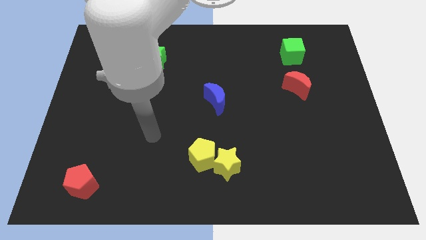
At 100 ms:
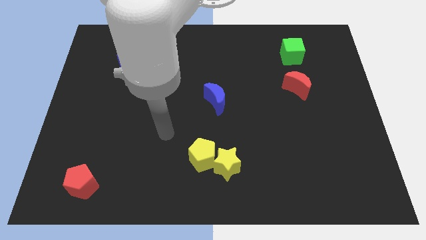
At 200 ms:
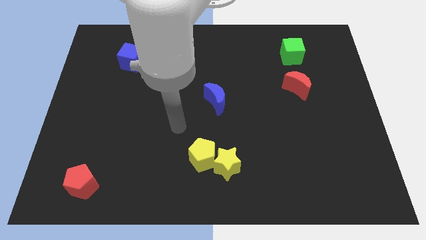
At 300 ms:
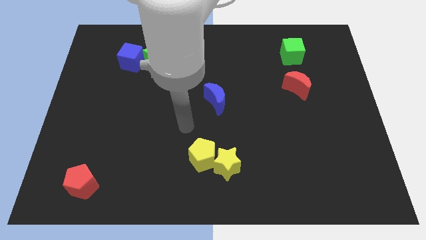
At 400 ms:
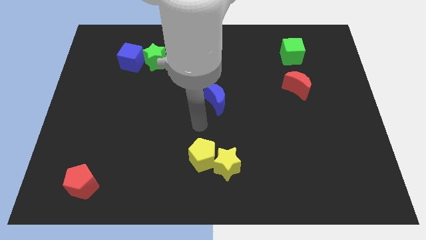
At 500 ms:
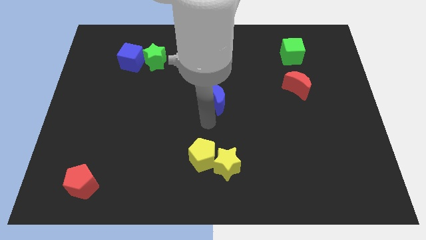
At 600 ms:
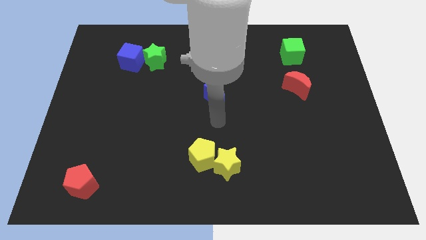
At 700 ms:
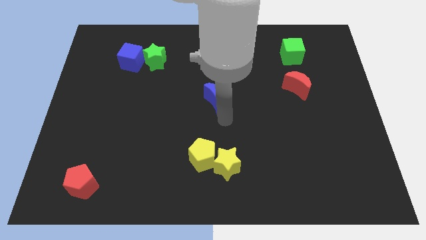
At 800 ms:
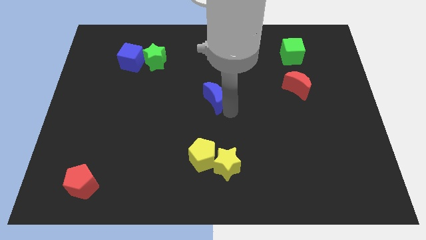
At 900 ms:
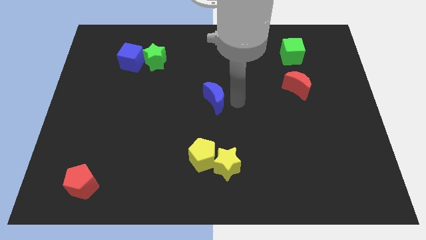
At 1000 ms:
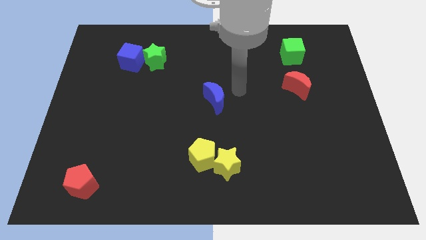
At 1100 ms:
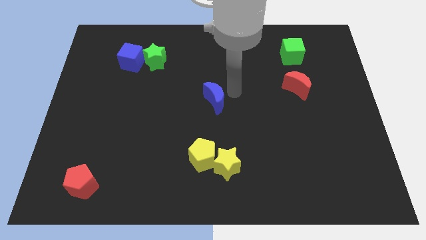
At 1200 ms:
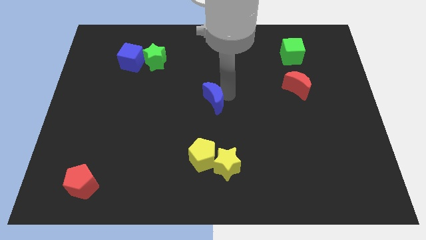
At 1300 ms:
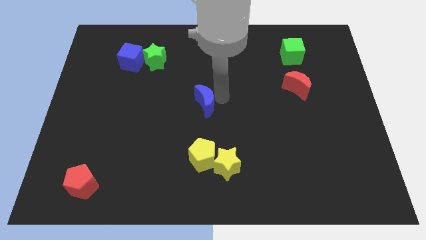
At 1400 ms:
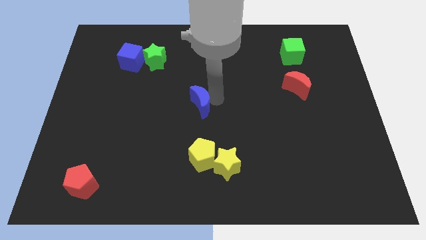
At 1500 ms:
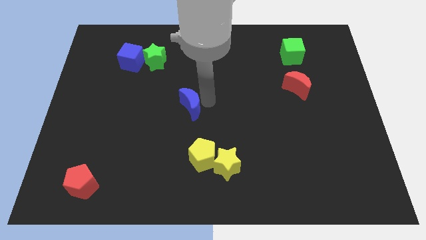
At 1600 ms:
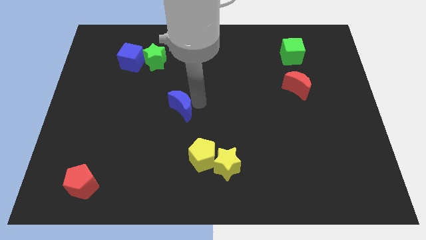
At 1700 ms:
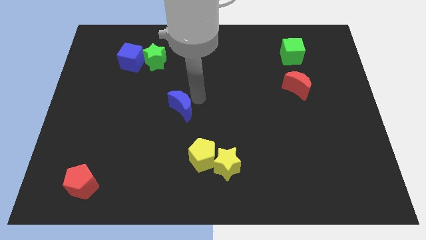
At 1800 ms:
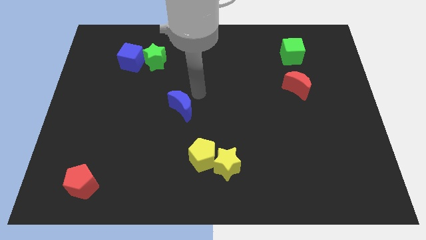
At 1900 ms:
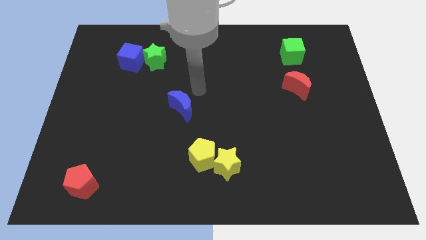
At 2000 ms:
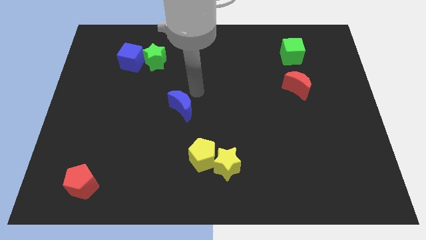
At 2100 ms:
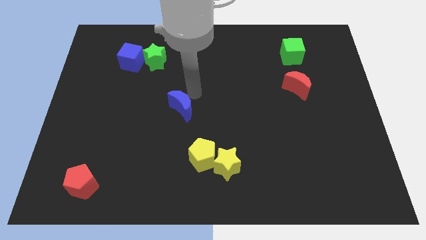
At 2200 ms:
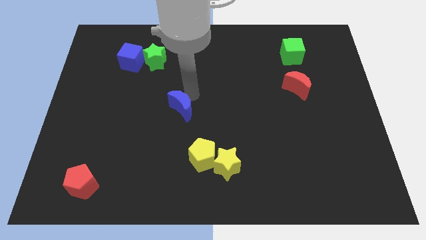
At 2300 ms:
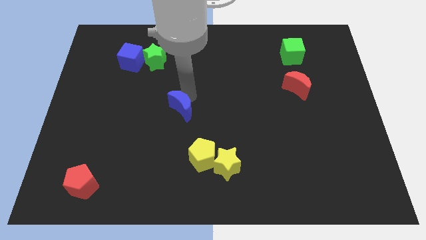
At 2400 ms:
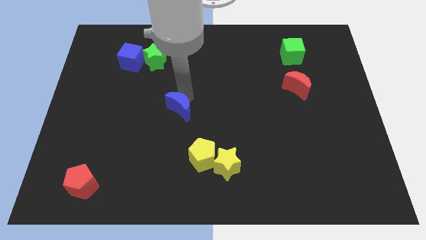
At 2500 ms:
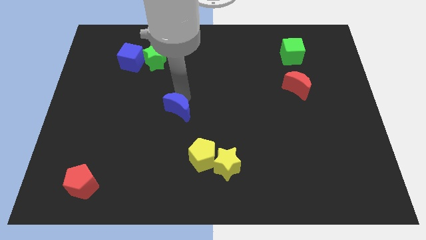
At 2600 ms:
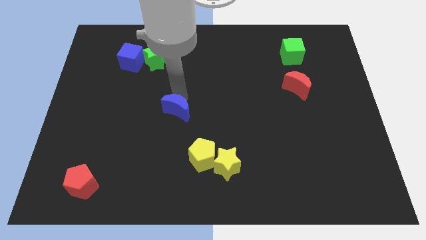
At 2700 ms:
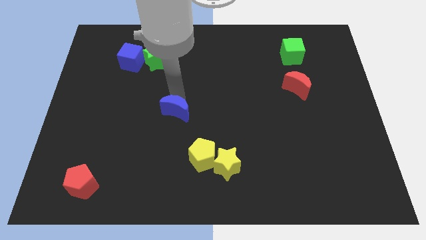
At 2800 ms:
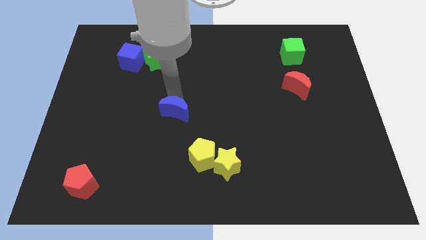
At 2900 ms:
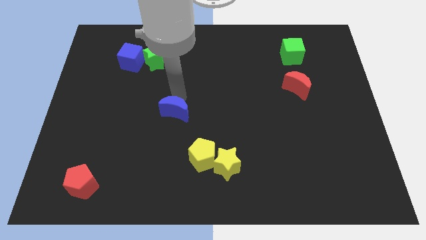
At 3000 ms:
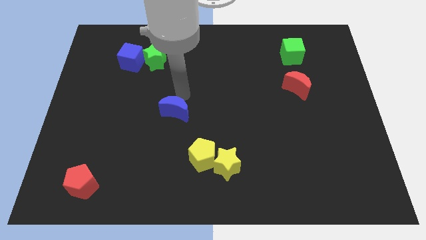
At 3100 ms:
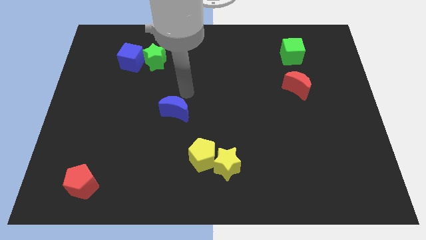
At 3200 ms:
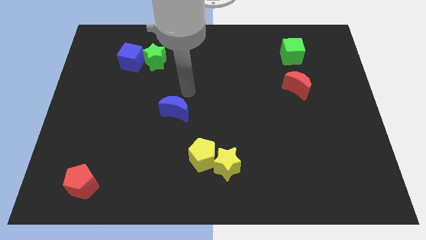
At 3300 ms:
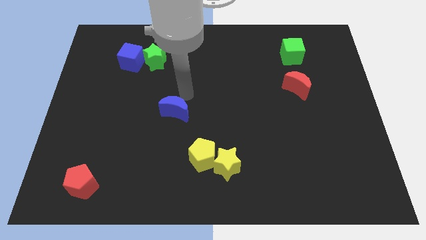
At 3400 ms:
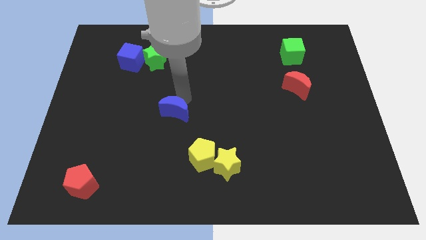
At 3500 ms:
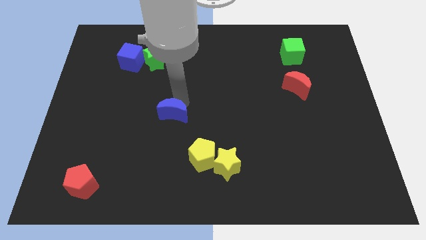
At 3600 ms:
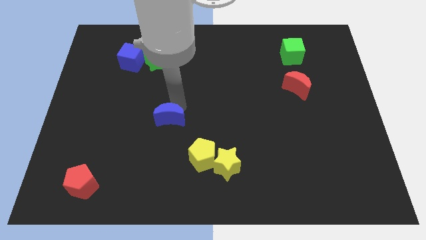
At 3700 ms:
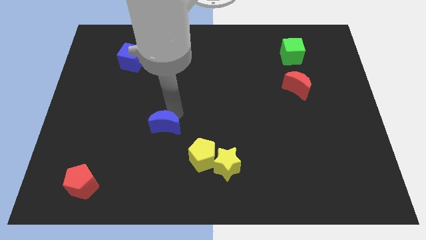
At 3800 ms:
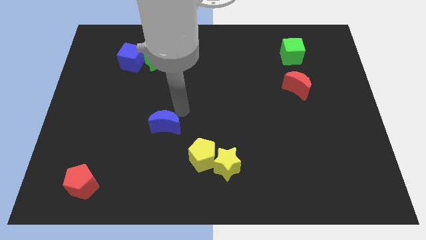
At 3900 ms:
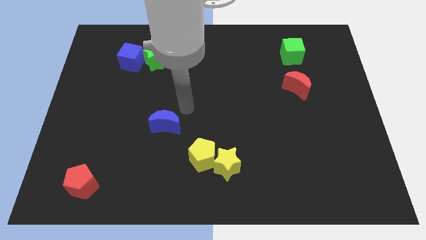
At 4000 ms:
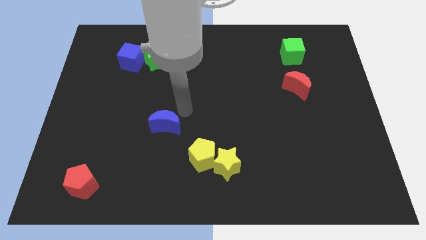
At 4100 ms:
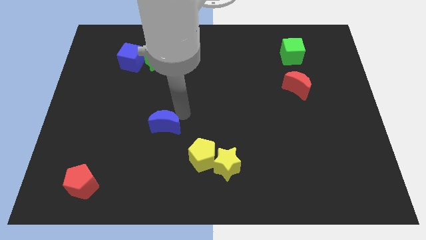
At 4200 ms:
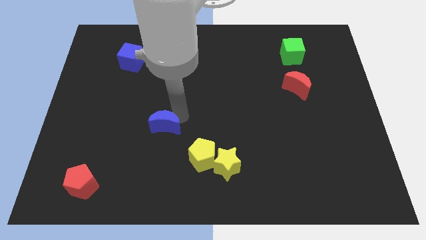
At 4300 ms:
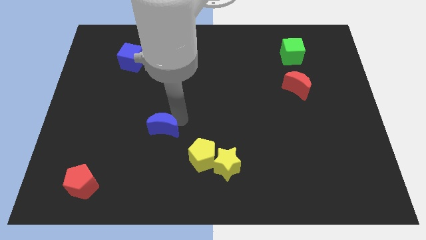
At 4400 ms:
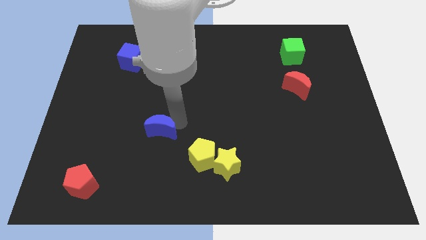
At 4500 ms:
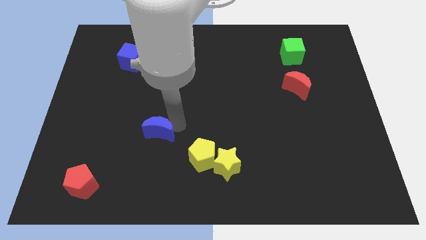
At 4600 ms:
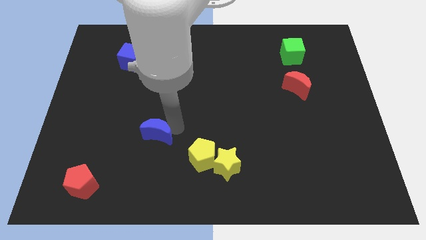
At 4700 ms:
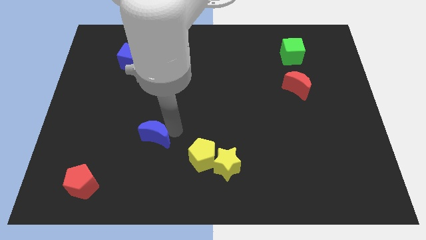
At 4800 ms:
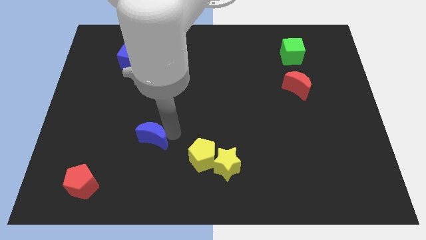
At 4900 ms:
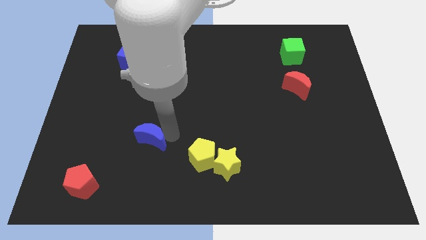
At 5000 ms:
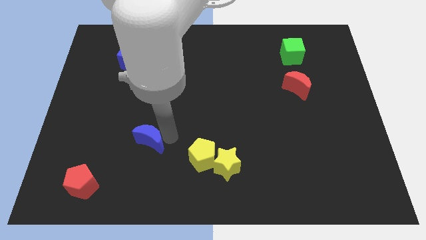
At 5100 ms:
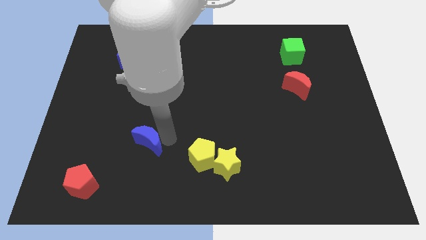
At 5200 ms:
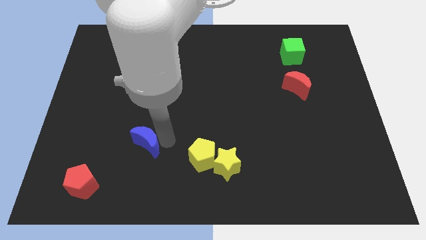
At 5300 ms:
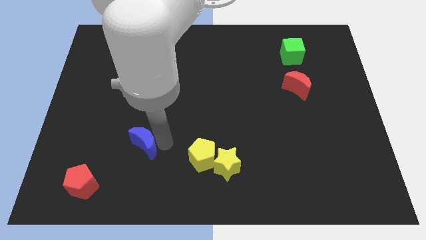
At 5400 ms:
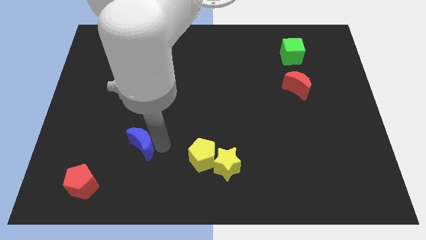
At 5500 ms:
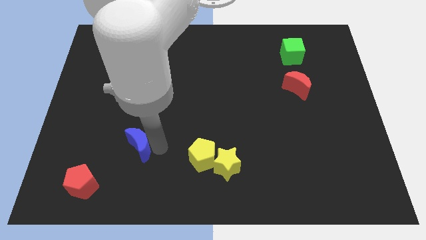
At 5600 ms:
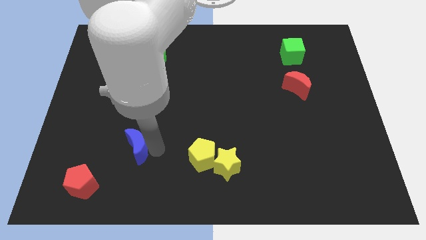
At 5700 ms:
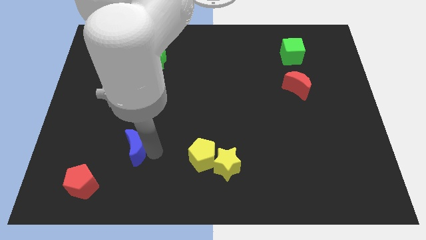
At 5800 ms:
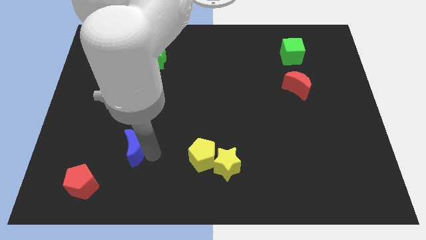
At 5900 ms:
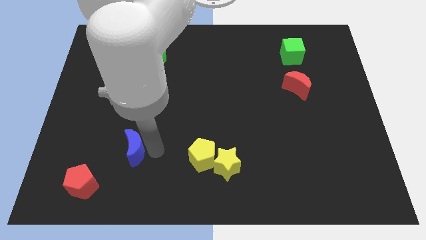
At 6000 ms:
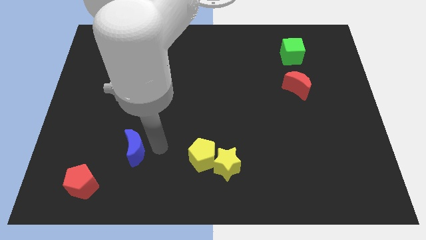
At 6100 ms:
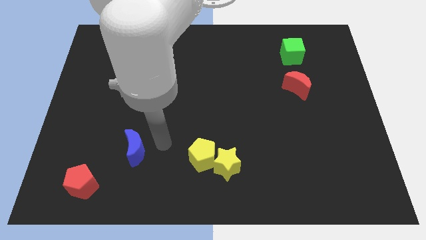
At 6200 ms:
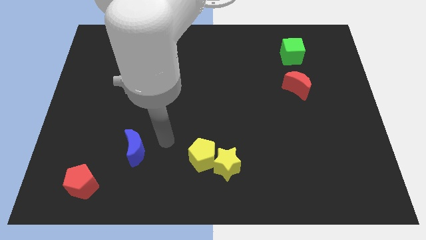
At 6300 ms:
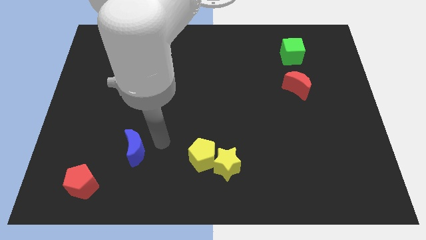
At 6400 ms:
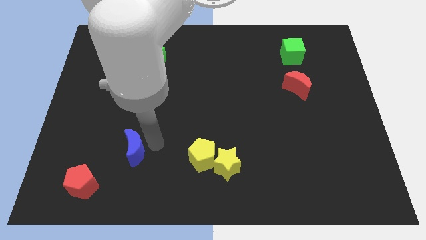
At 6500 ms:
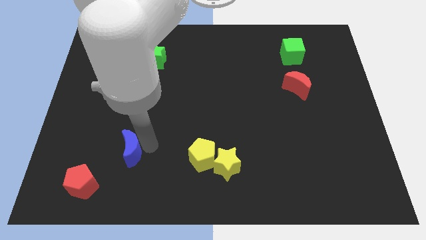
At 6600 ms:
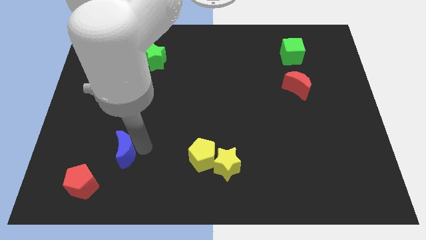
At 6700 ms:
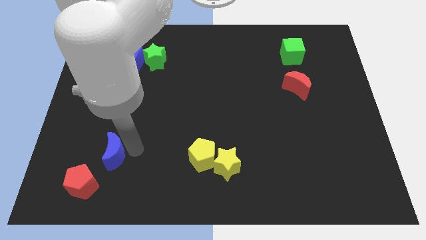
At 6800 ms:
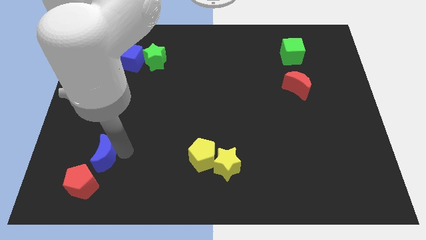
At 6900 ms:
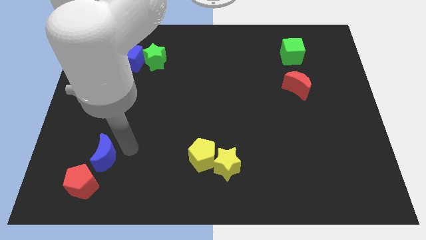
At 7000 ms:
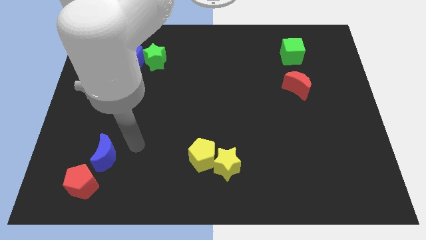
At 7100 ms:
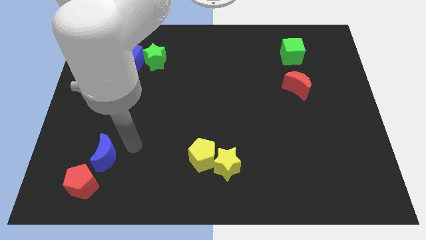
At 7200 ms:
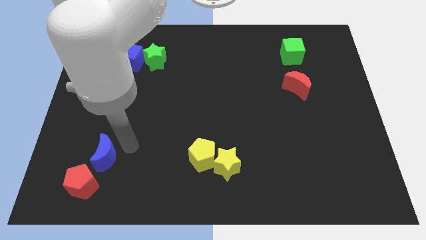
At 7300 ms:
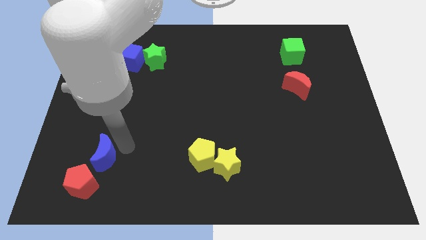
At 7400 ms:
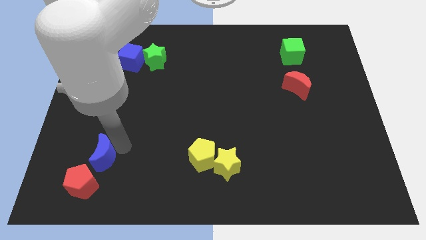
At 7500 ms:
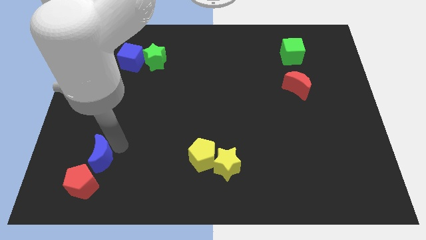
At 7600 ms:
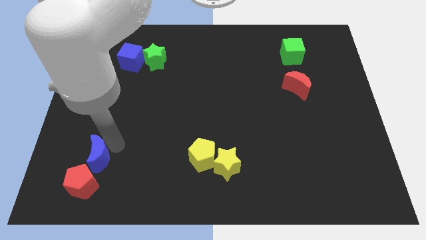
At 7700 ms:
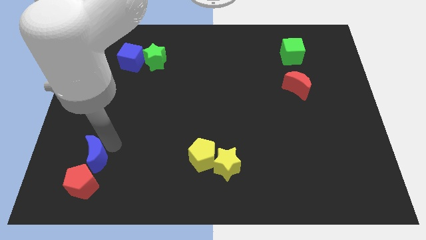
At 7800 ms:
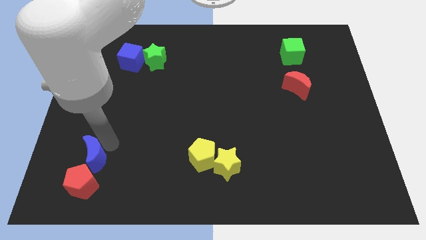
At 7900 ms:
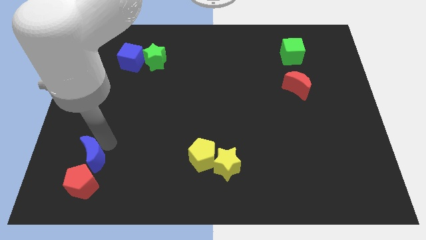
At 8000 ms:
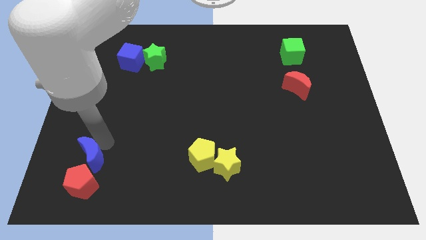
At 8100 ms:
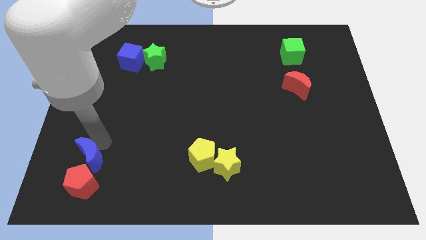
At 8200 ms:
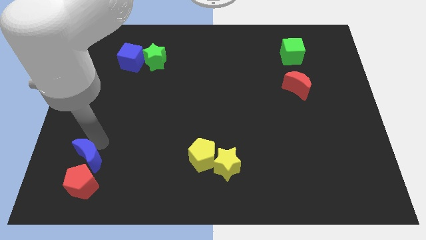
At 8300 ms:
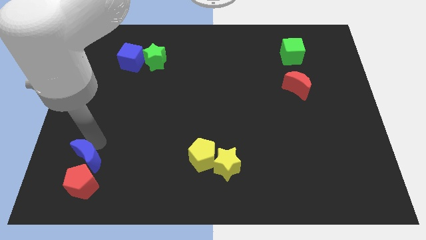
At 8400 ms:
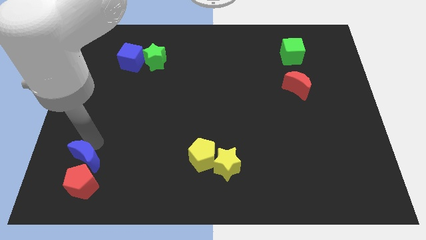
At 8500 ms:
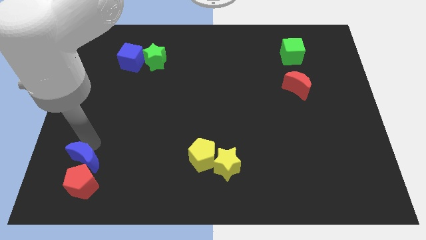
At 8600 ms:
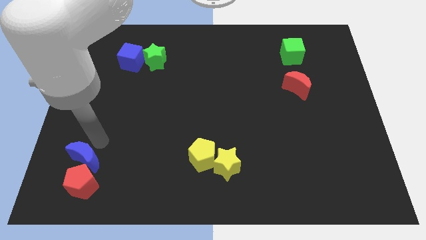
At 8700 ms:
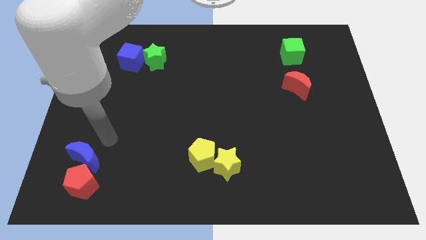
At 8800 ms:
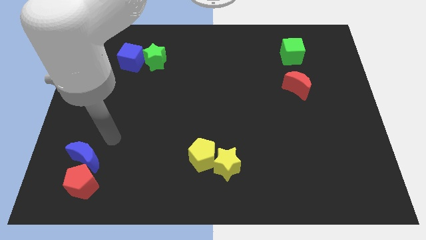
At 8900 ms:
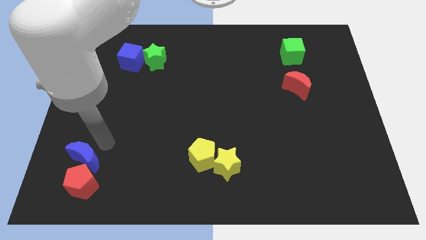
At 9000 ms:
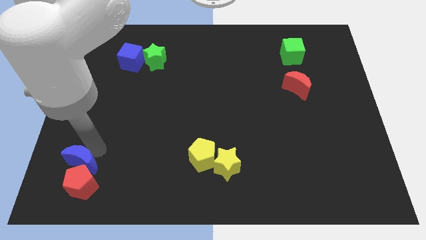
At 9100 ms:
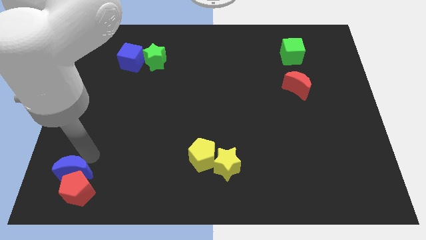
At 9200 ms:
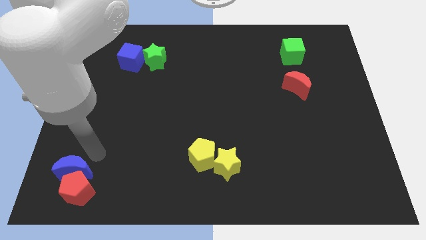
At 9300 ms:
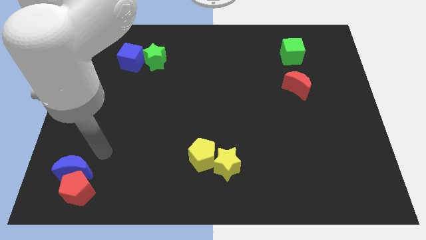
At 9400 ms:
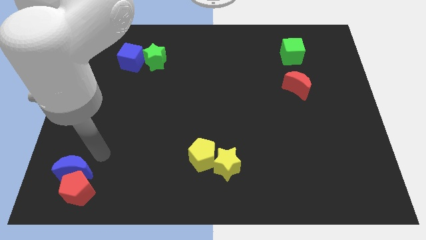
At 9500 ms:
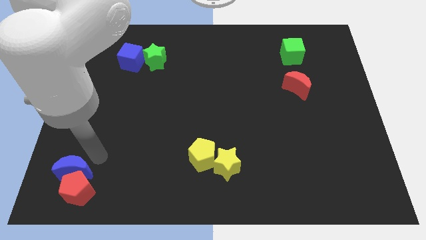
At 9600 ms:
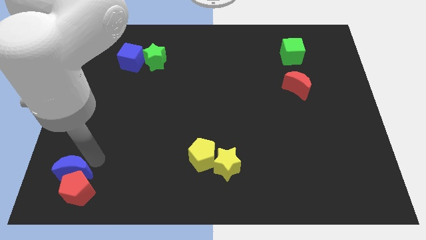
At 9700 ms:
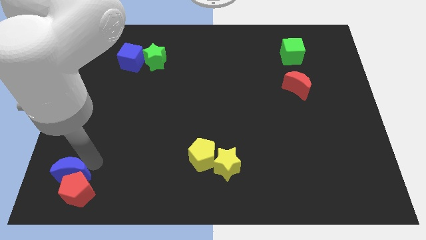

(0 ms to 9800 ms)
put the blue moon to the bottom left of the board
